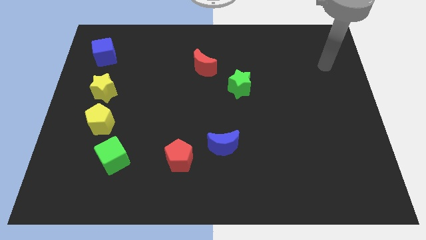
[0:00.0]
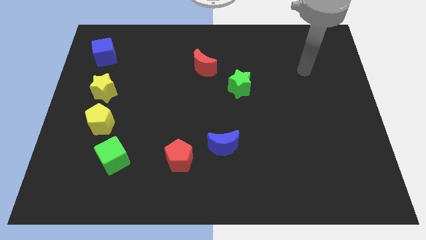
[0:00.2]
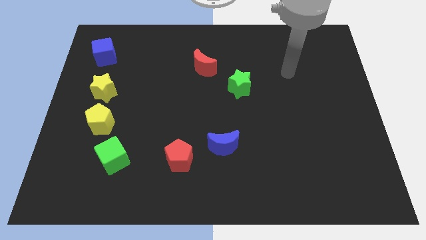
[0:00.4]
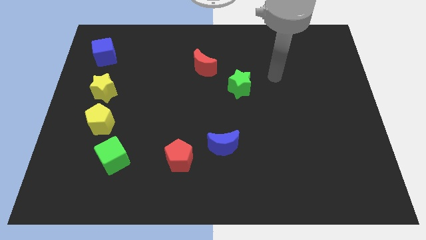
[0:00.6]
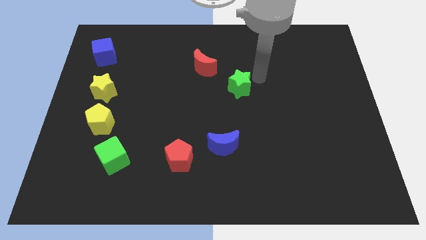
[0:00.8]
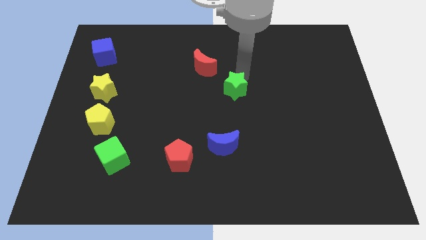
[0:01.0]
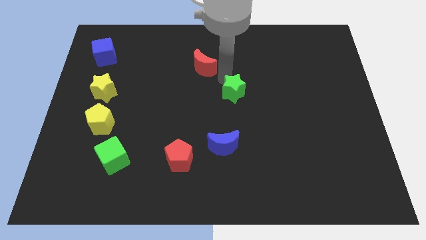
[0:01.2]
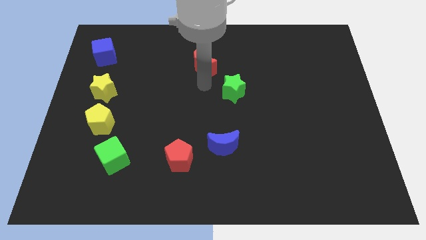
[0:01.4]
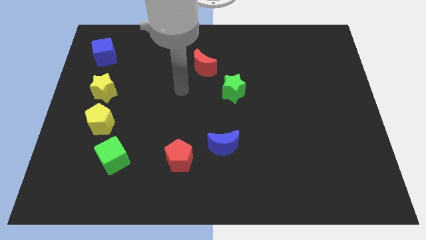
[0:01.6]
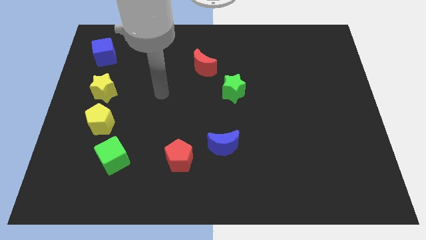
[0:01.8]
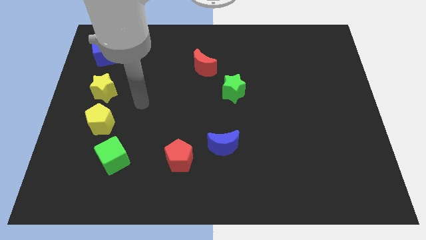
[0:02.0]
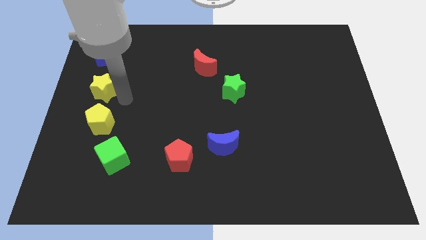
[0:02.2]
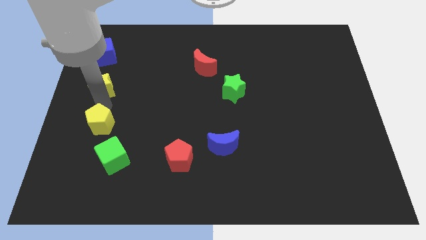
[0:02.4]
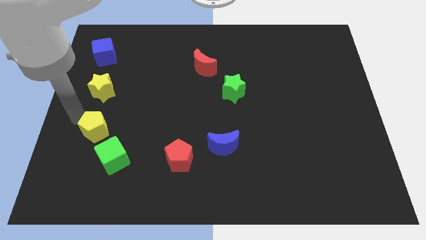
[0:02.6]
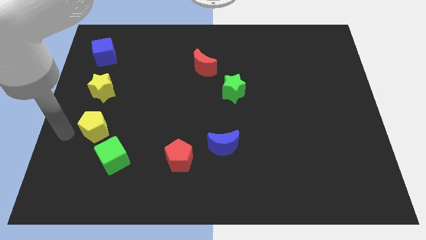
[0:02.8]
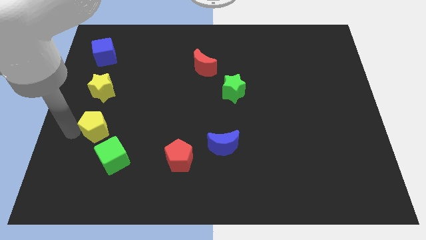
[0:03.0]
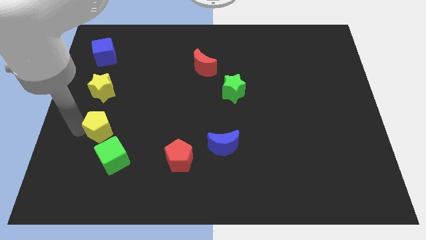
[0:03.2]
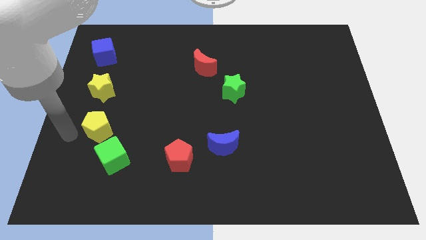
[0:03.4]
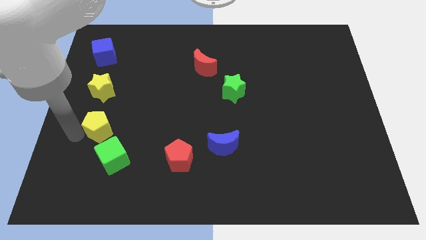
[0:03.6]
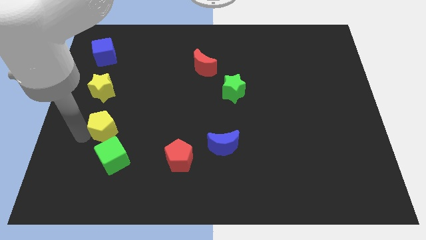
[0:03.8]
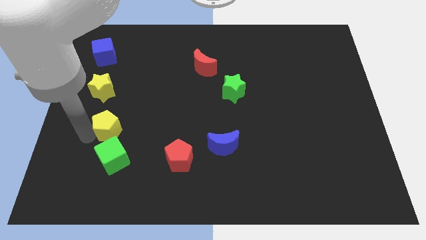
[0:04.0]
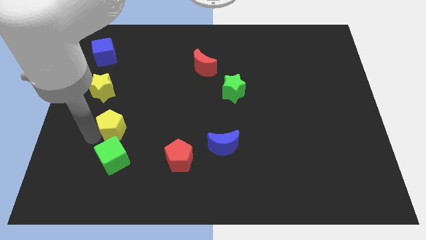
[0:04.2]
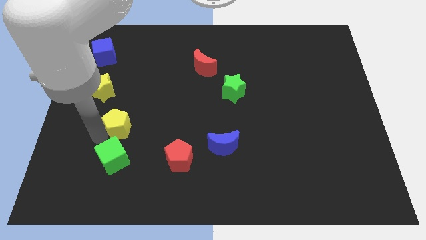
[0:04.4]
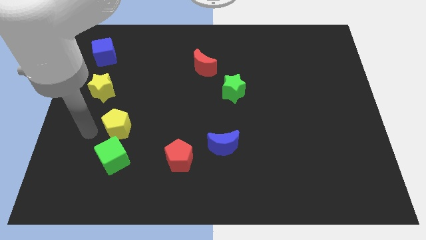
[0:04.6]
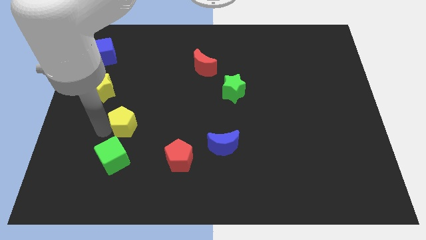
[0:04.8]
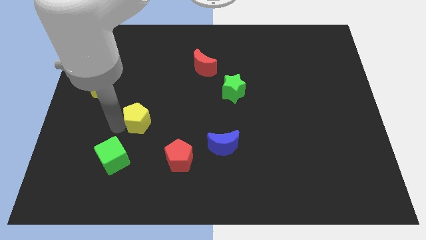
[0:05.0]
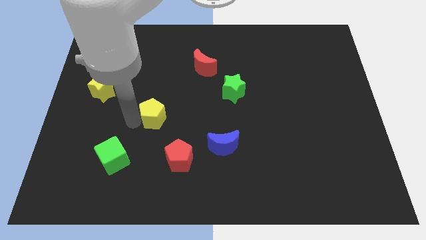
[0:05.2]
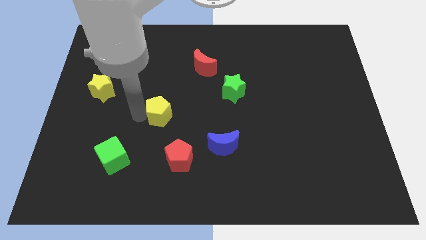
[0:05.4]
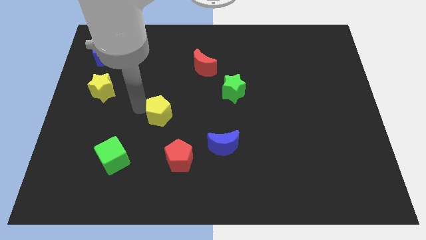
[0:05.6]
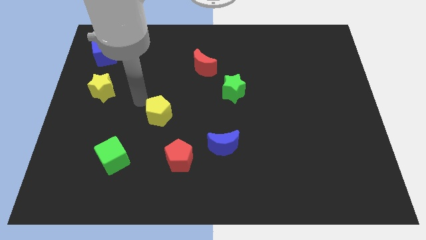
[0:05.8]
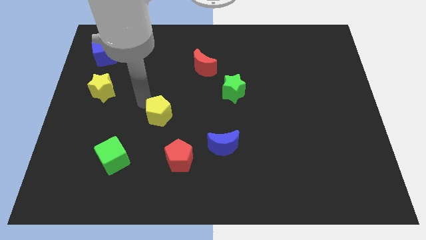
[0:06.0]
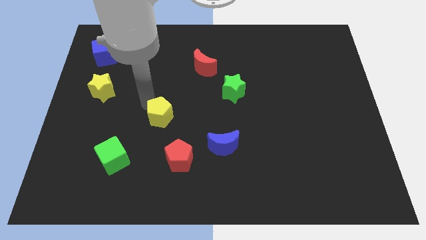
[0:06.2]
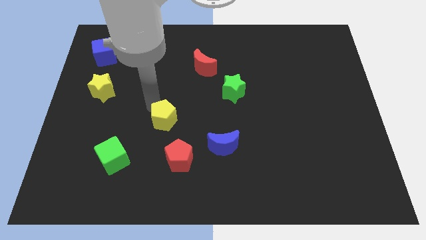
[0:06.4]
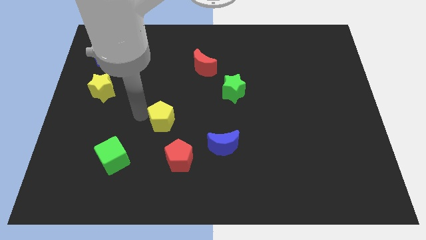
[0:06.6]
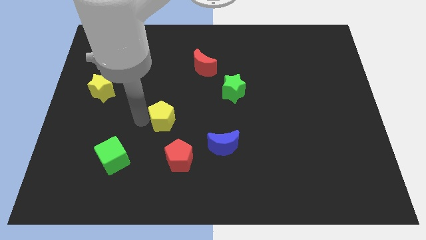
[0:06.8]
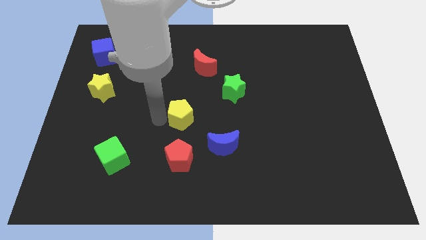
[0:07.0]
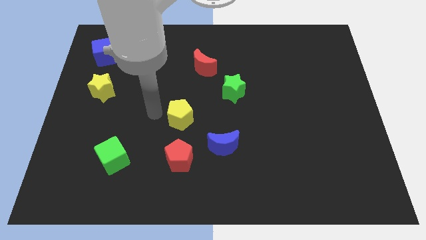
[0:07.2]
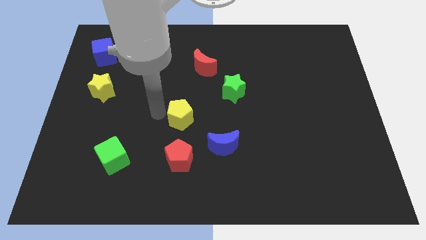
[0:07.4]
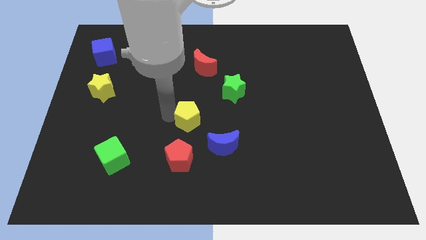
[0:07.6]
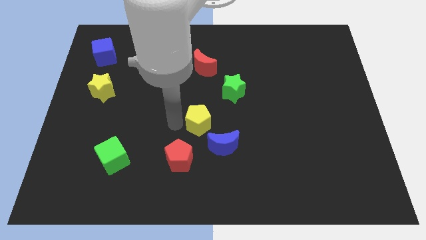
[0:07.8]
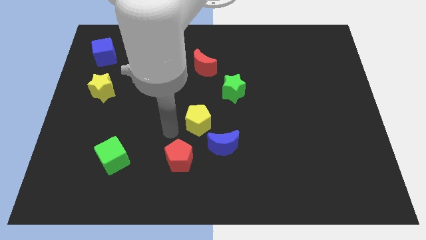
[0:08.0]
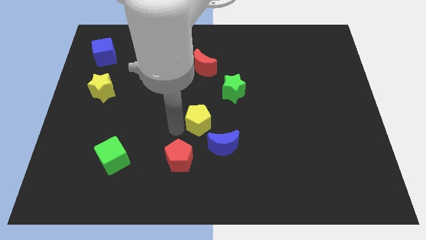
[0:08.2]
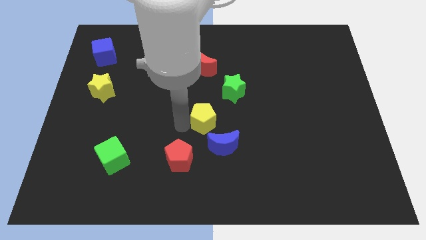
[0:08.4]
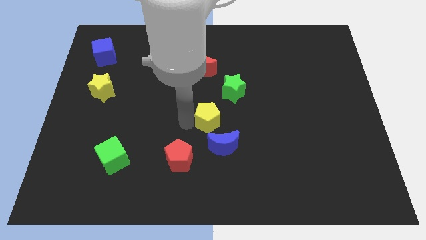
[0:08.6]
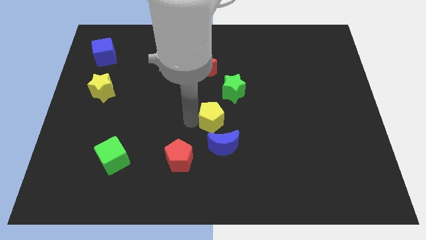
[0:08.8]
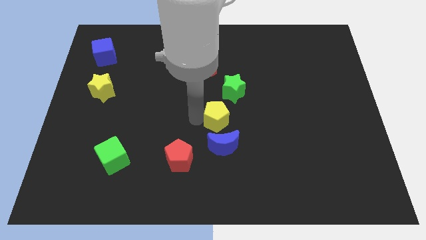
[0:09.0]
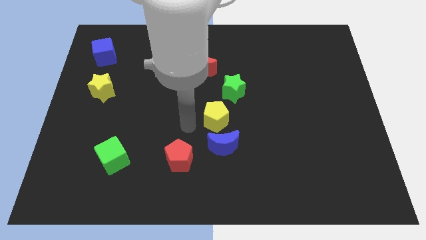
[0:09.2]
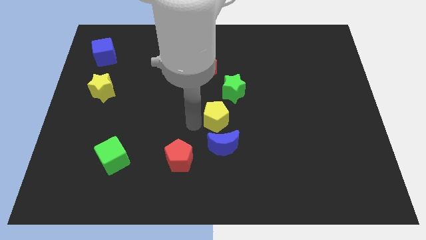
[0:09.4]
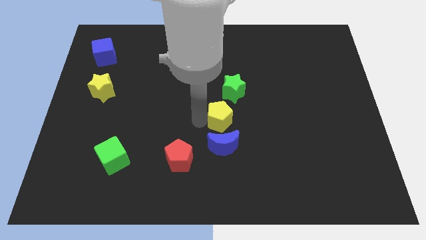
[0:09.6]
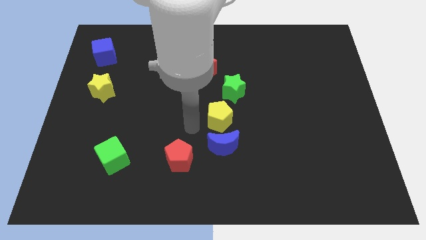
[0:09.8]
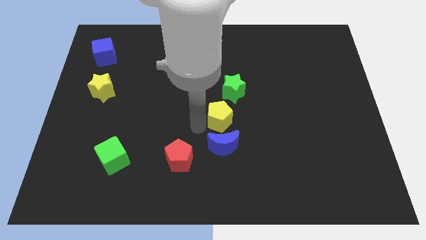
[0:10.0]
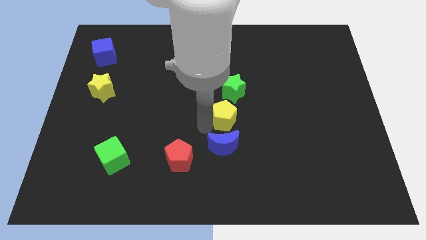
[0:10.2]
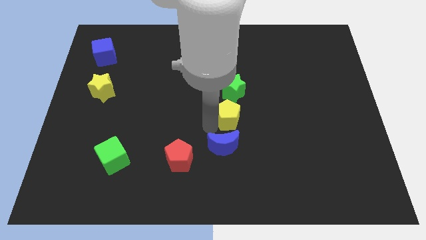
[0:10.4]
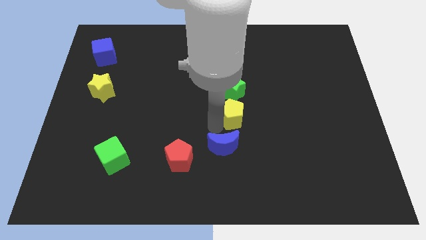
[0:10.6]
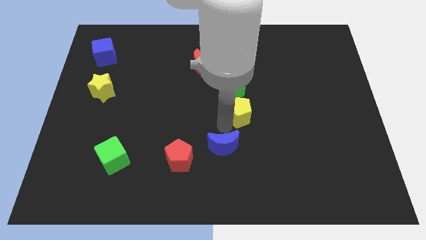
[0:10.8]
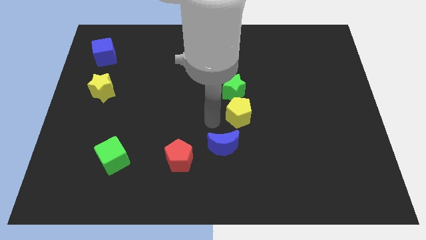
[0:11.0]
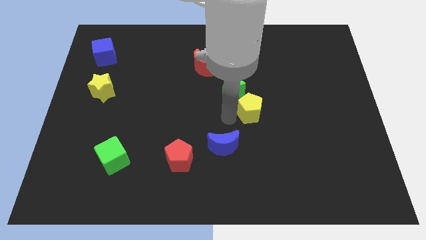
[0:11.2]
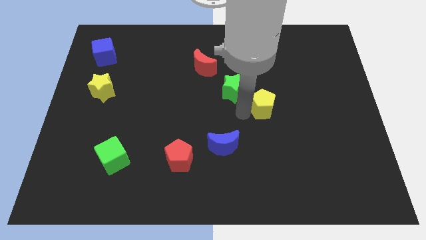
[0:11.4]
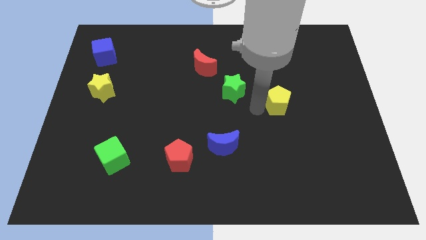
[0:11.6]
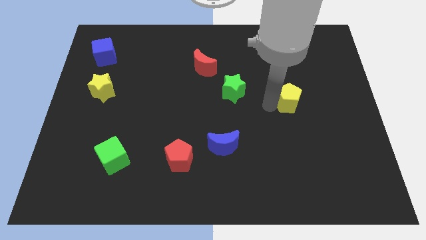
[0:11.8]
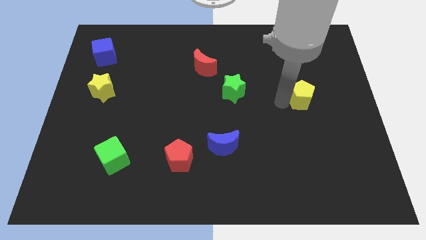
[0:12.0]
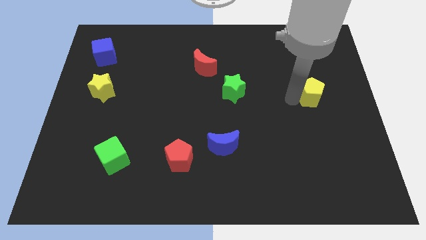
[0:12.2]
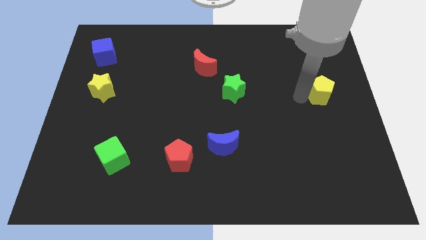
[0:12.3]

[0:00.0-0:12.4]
slide the yellow pentagon to the right side

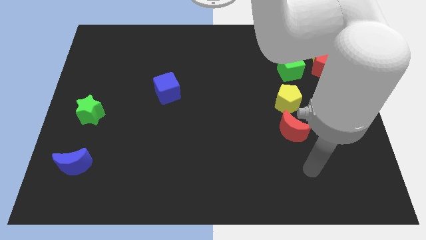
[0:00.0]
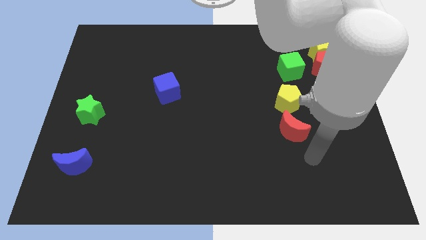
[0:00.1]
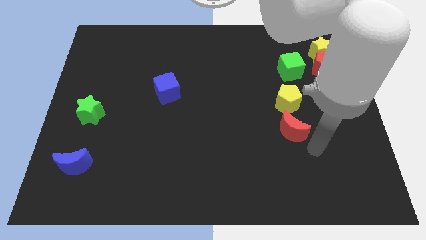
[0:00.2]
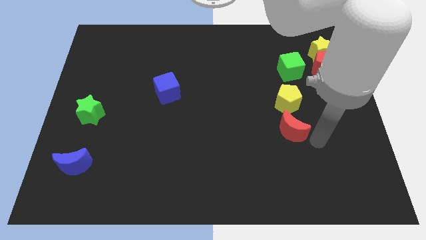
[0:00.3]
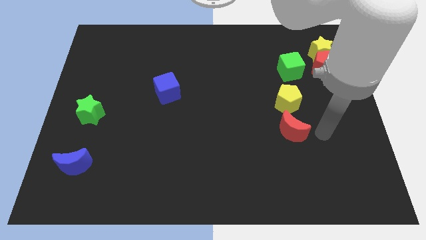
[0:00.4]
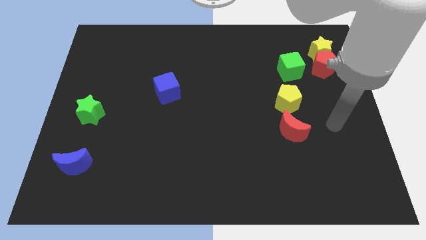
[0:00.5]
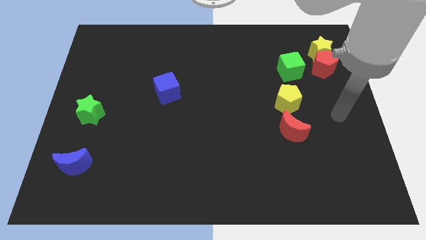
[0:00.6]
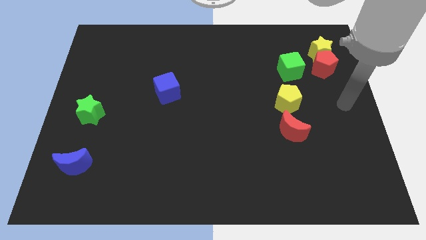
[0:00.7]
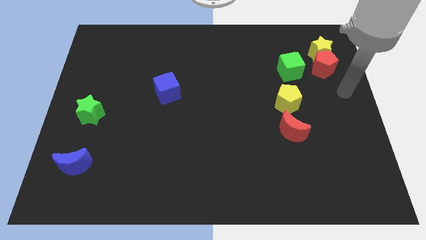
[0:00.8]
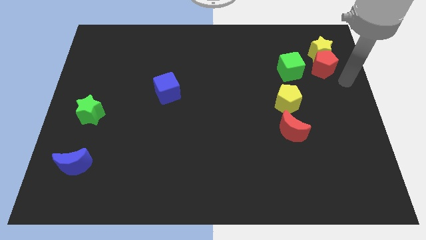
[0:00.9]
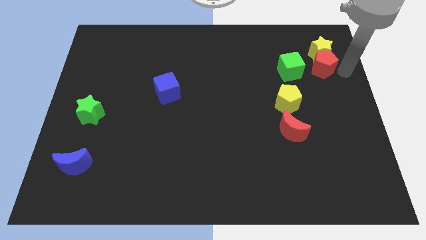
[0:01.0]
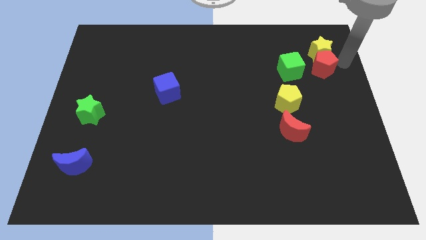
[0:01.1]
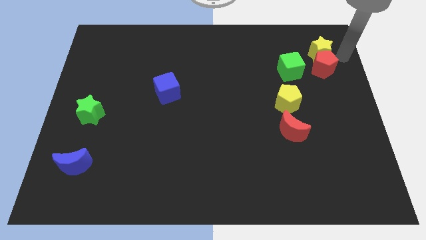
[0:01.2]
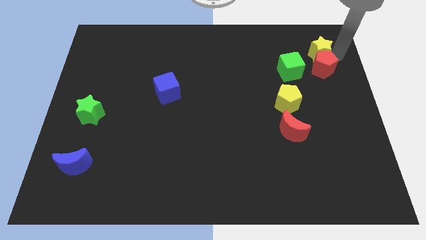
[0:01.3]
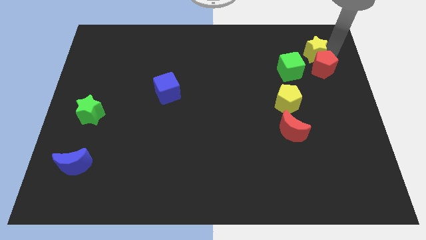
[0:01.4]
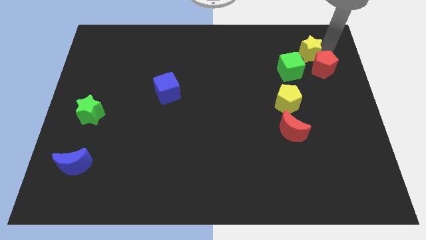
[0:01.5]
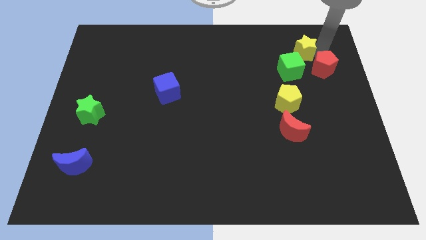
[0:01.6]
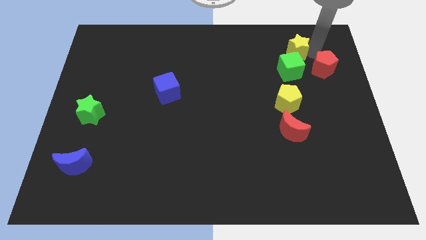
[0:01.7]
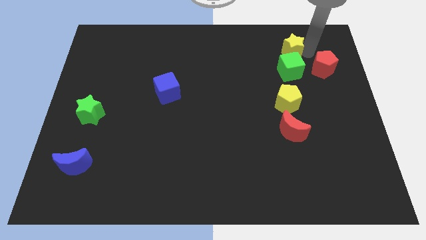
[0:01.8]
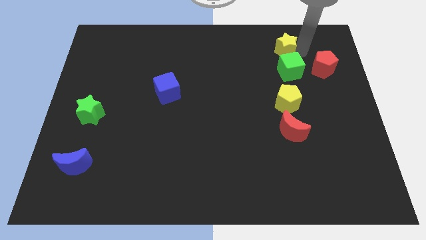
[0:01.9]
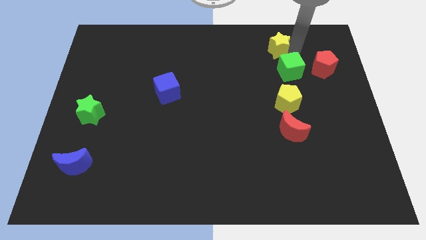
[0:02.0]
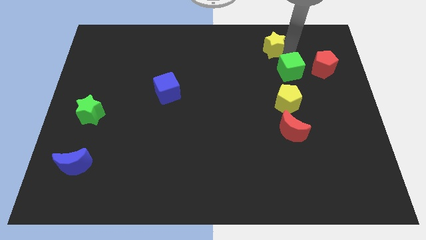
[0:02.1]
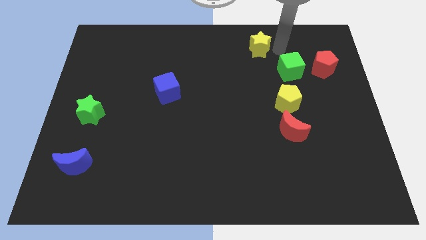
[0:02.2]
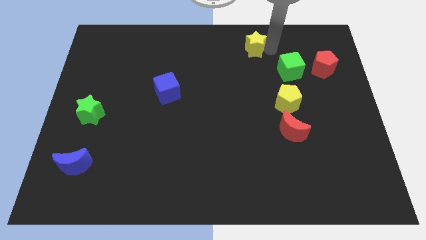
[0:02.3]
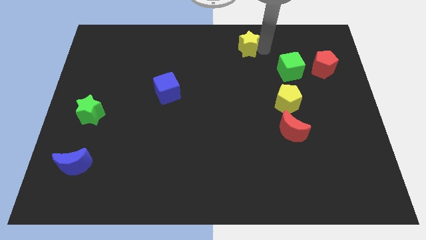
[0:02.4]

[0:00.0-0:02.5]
slide the yellow star to the top side
